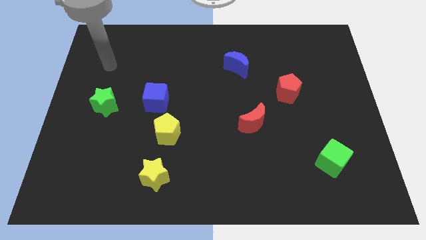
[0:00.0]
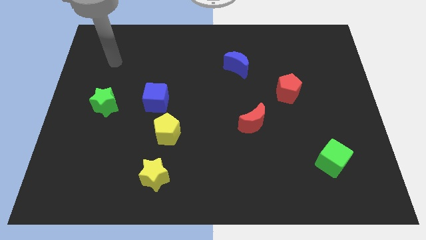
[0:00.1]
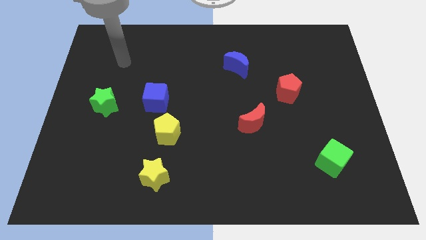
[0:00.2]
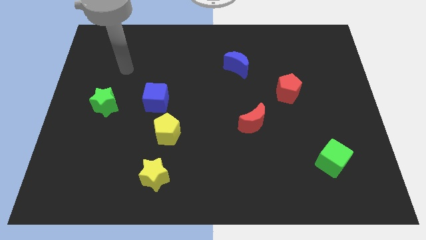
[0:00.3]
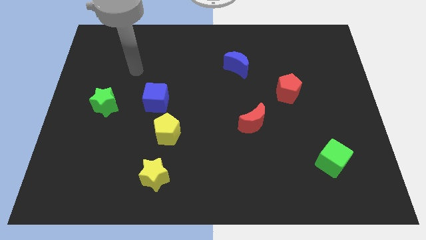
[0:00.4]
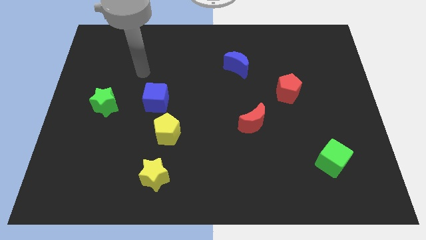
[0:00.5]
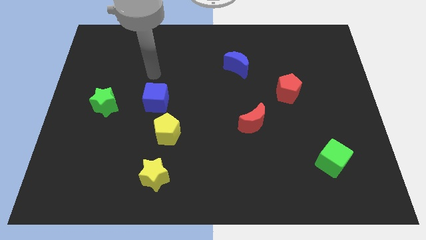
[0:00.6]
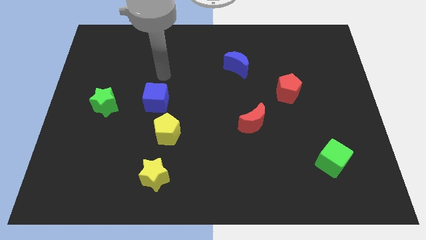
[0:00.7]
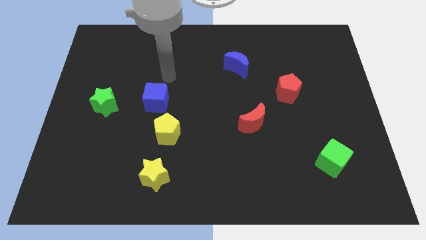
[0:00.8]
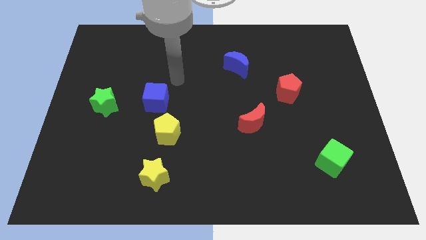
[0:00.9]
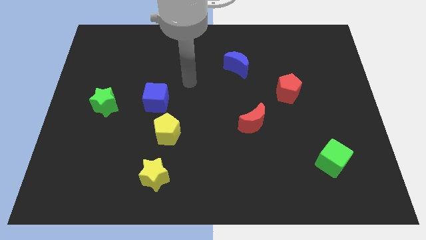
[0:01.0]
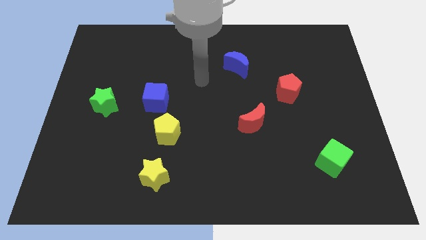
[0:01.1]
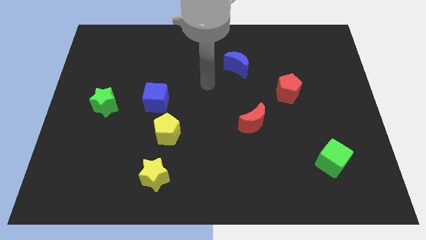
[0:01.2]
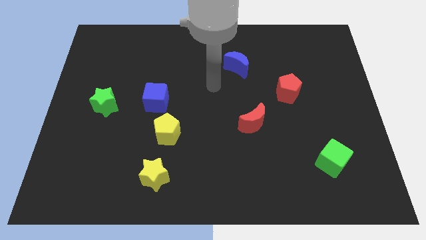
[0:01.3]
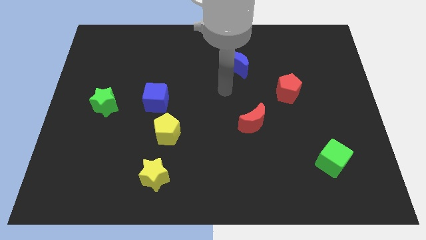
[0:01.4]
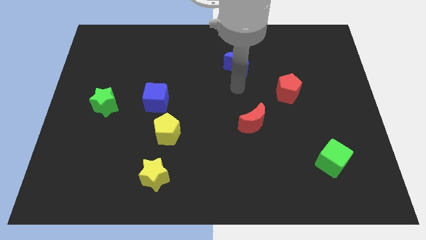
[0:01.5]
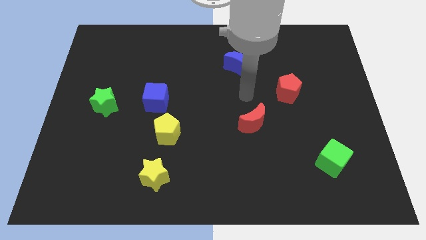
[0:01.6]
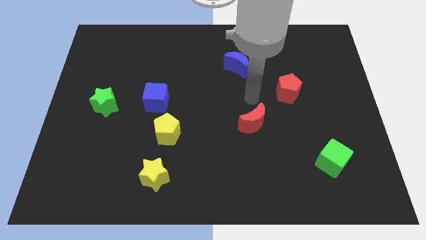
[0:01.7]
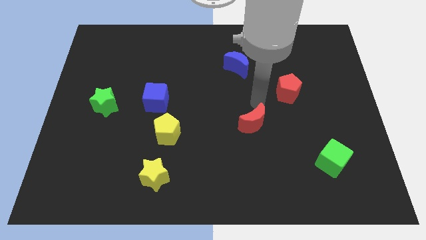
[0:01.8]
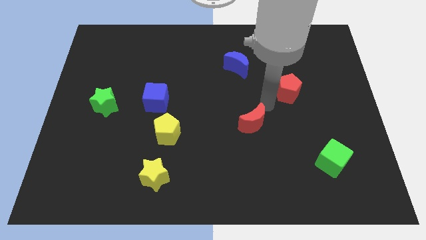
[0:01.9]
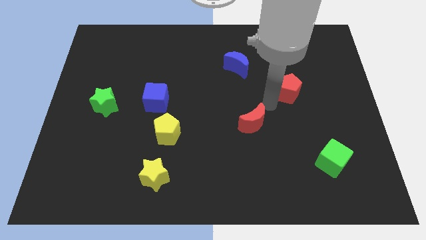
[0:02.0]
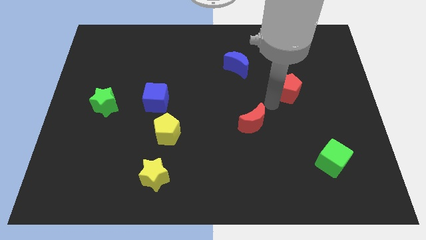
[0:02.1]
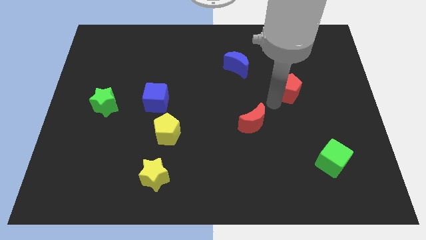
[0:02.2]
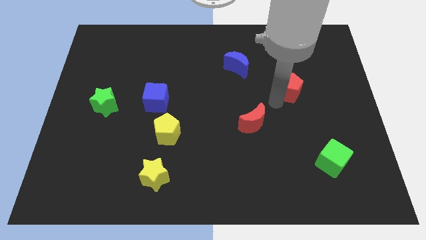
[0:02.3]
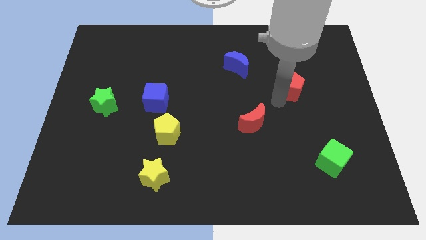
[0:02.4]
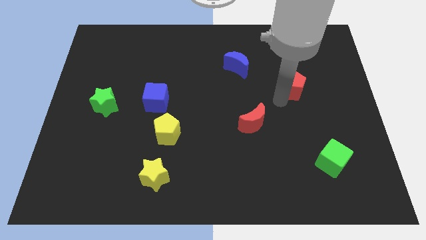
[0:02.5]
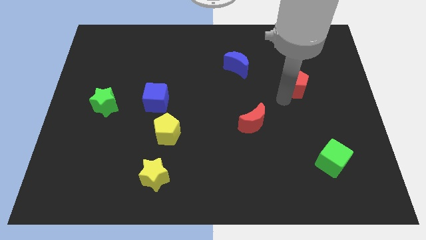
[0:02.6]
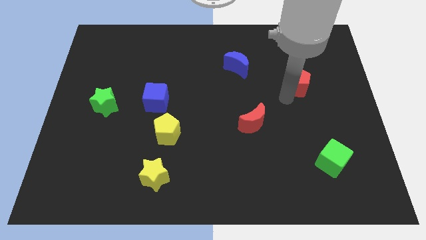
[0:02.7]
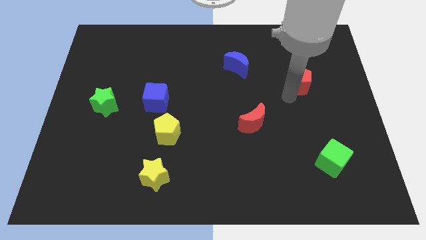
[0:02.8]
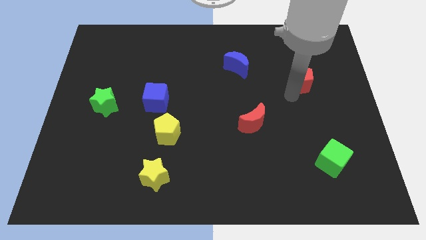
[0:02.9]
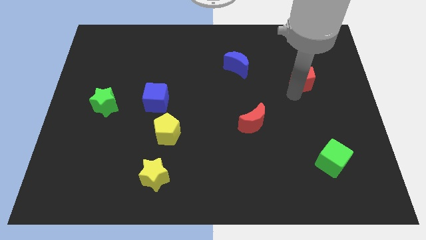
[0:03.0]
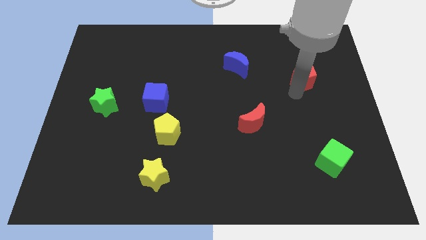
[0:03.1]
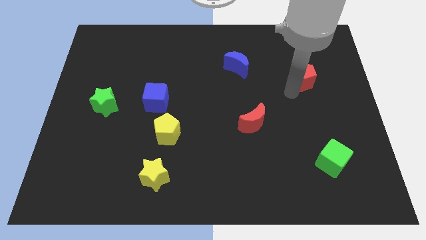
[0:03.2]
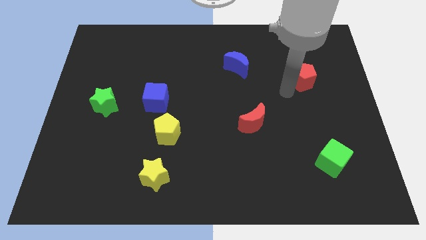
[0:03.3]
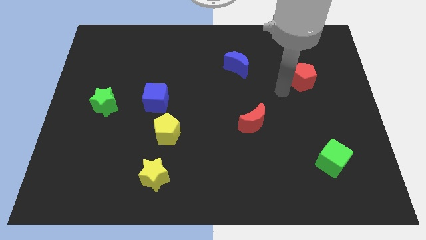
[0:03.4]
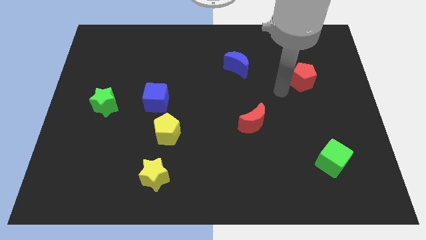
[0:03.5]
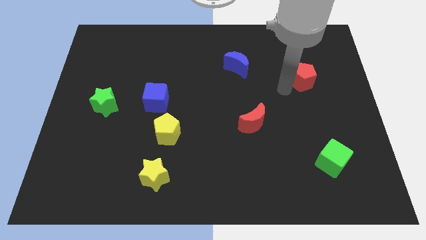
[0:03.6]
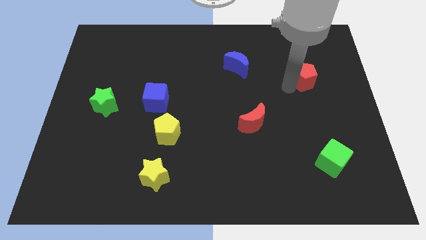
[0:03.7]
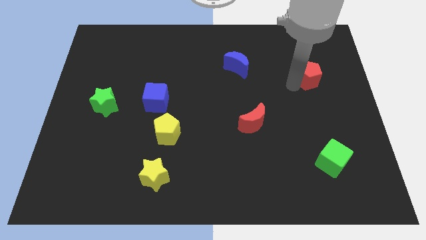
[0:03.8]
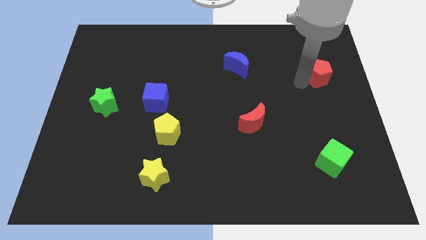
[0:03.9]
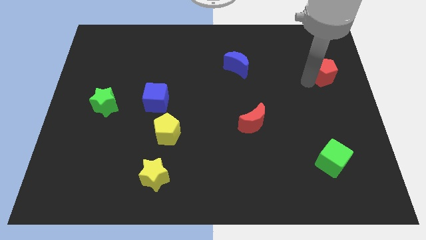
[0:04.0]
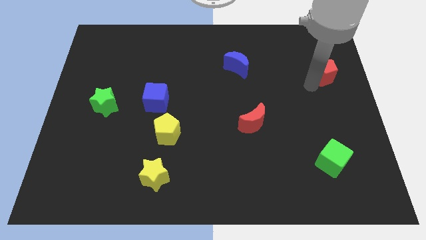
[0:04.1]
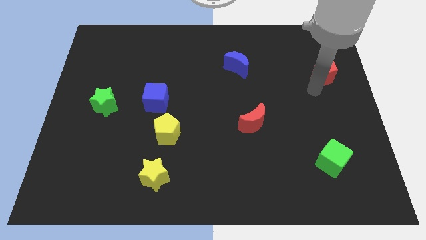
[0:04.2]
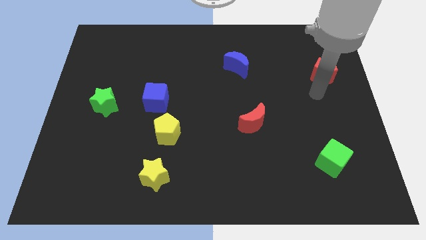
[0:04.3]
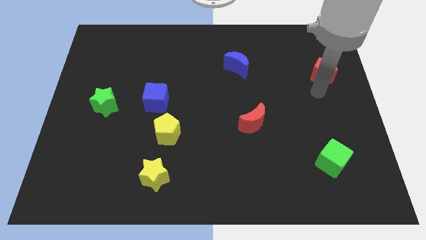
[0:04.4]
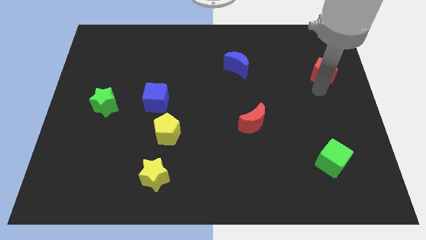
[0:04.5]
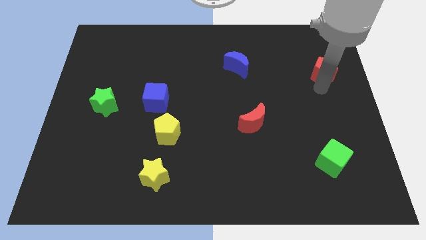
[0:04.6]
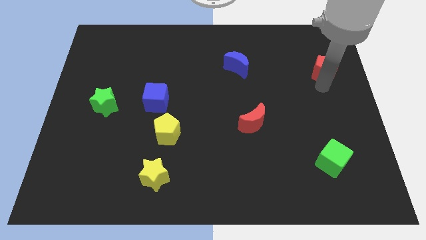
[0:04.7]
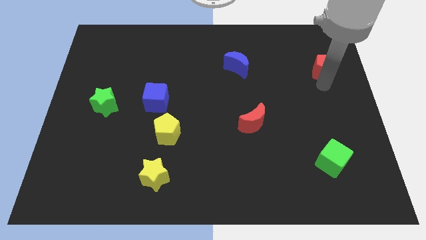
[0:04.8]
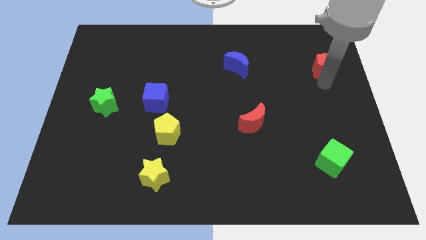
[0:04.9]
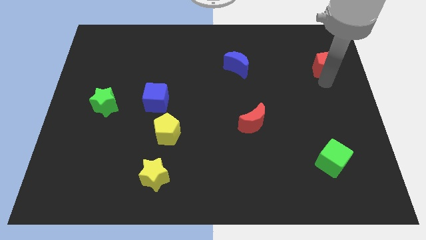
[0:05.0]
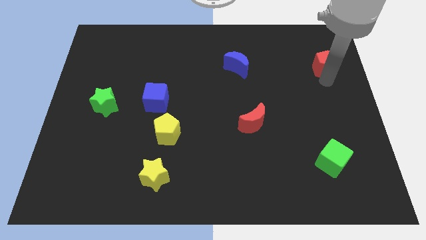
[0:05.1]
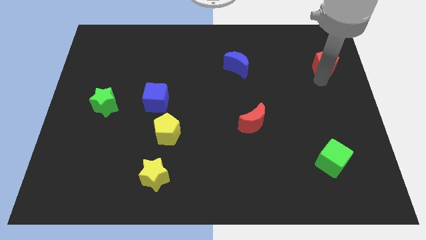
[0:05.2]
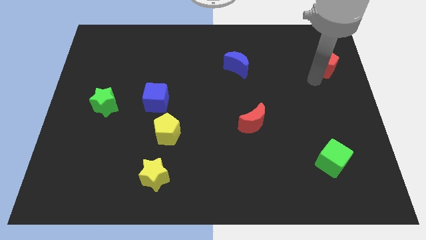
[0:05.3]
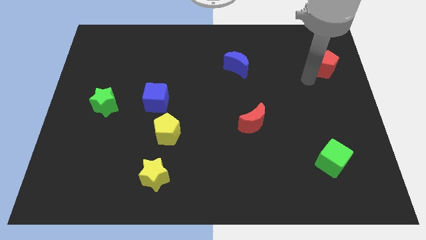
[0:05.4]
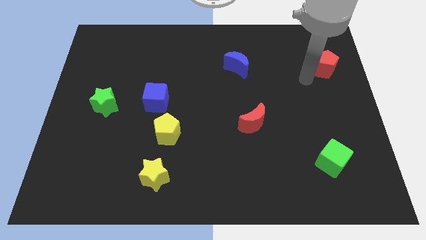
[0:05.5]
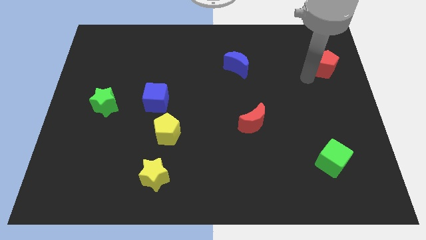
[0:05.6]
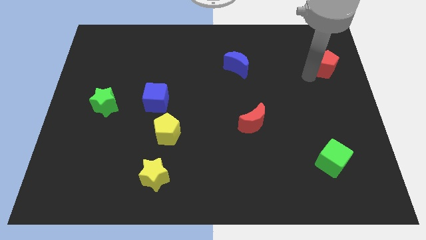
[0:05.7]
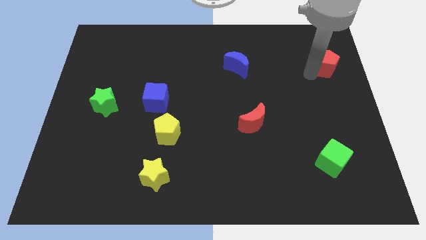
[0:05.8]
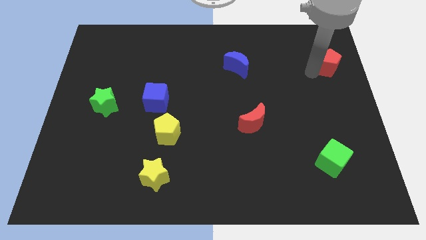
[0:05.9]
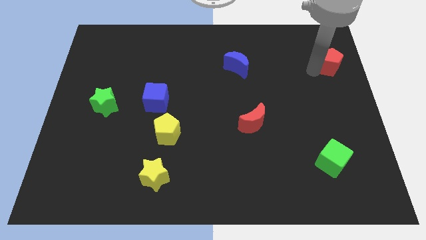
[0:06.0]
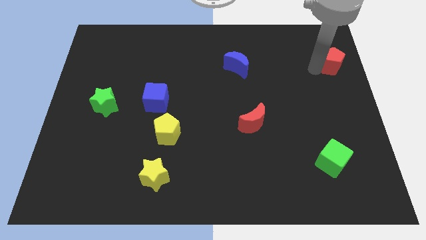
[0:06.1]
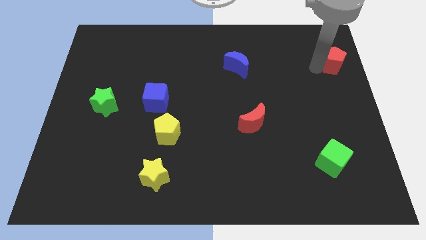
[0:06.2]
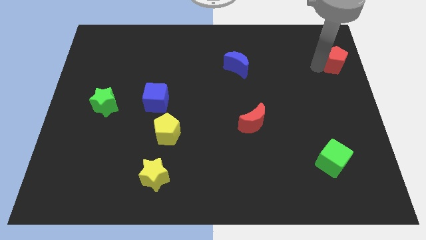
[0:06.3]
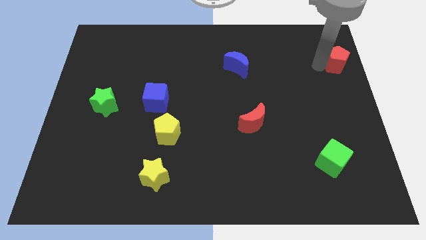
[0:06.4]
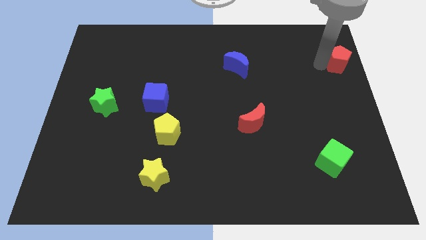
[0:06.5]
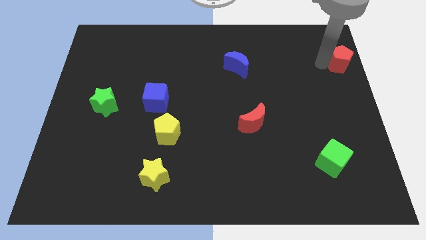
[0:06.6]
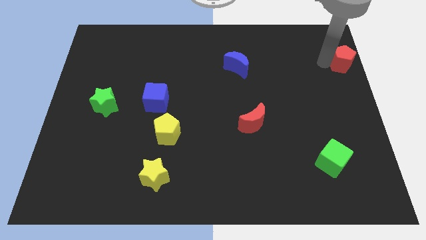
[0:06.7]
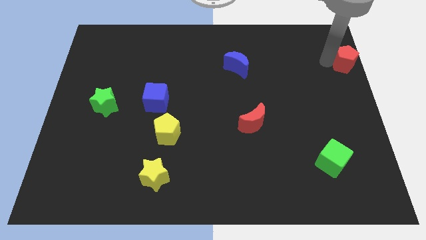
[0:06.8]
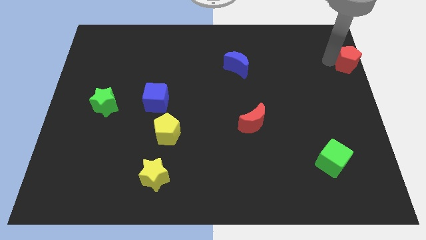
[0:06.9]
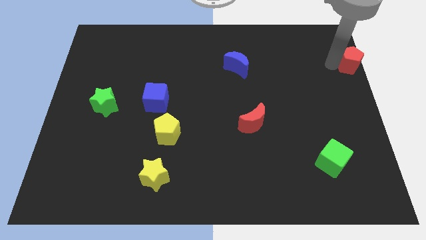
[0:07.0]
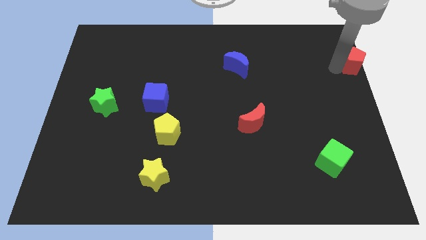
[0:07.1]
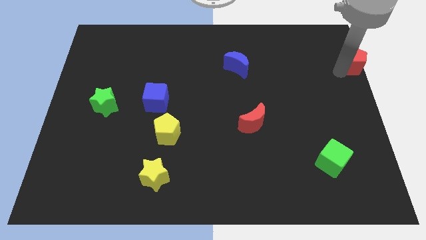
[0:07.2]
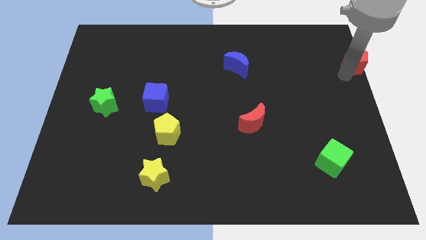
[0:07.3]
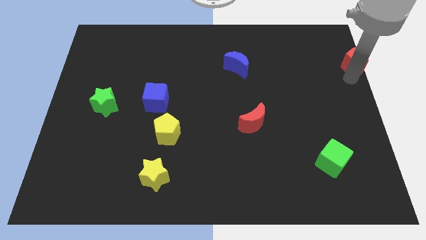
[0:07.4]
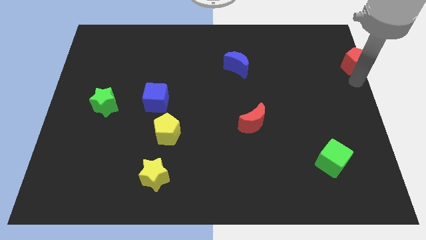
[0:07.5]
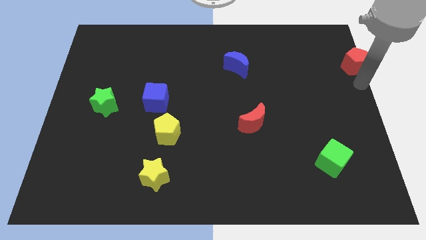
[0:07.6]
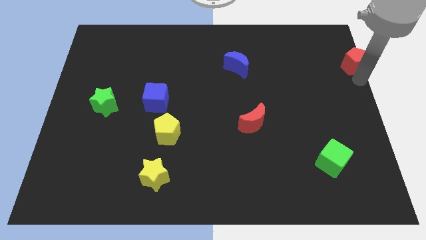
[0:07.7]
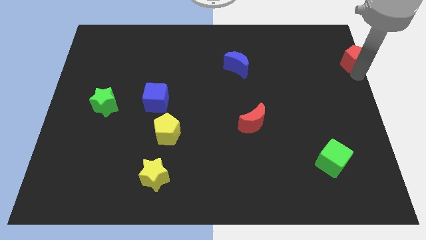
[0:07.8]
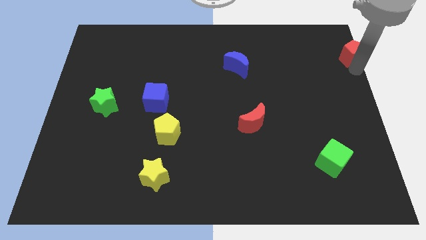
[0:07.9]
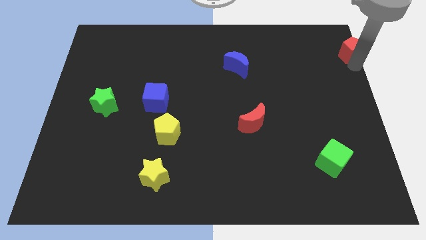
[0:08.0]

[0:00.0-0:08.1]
put the red pentagon to the upper right corner
